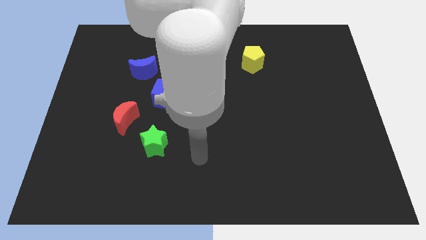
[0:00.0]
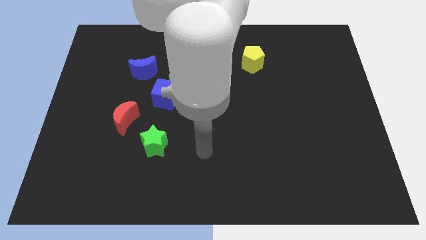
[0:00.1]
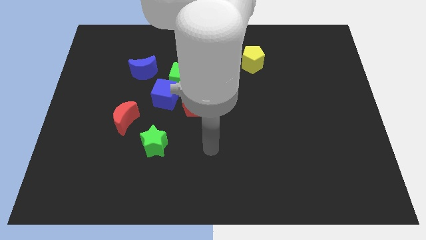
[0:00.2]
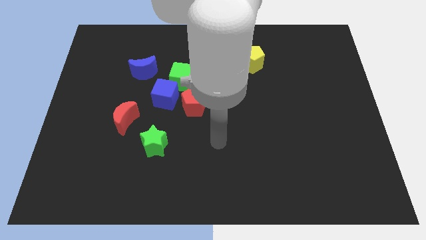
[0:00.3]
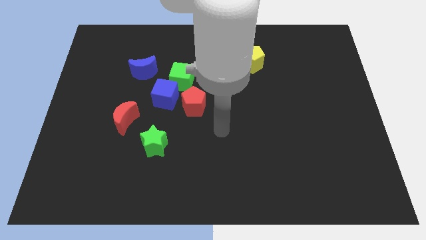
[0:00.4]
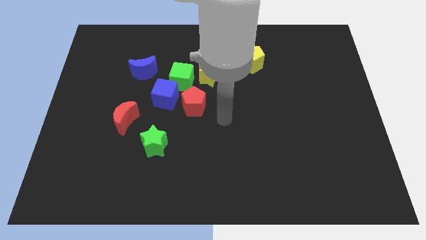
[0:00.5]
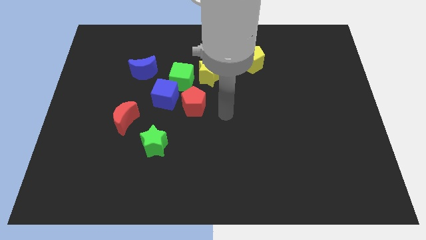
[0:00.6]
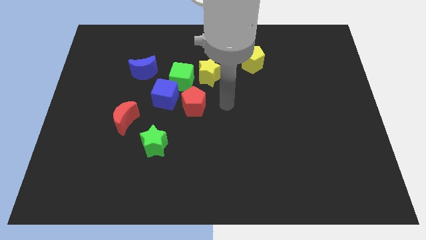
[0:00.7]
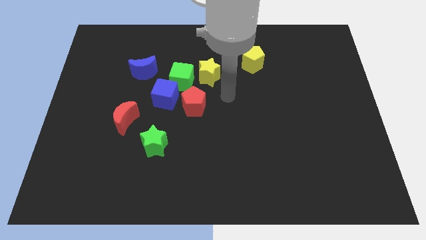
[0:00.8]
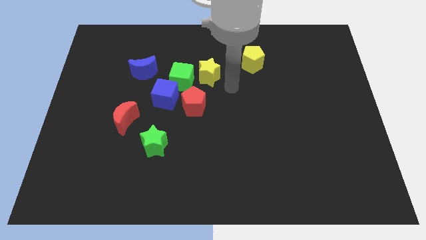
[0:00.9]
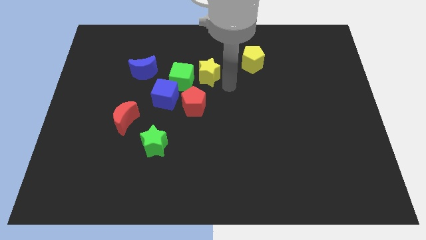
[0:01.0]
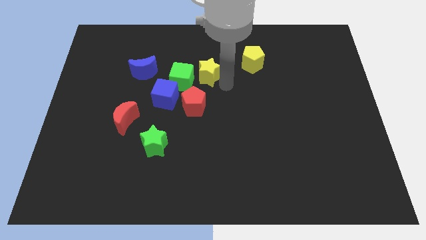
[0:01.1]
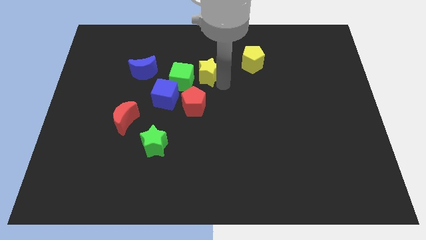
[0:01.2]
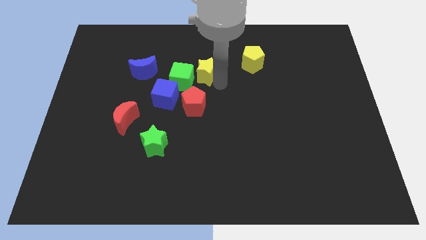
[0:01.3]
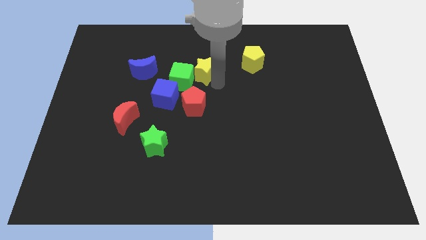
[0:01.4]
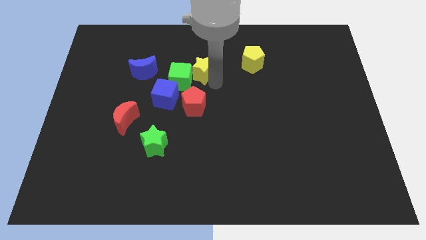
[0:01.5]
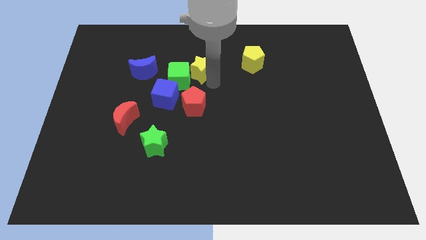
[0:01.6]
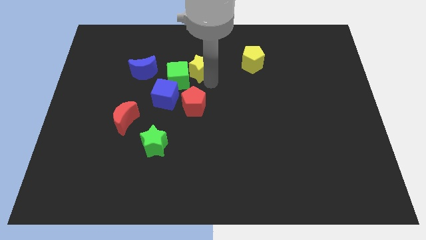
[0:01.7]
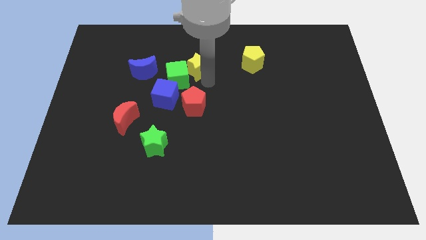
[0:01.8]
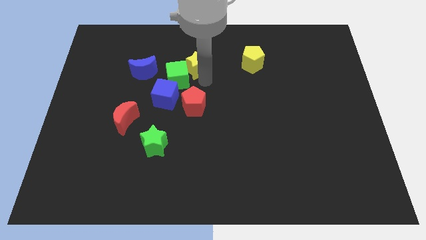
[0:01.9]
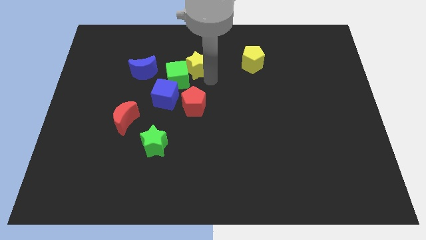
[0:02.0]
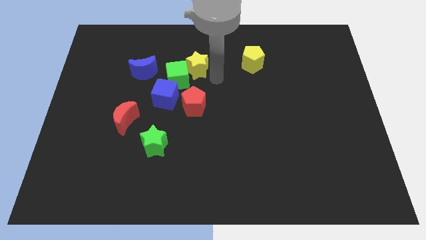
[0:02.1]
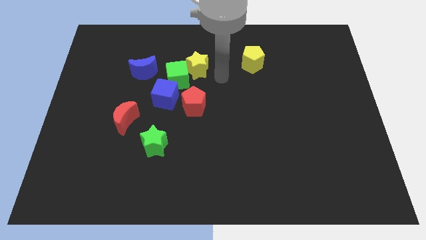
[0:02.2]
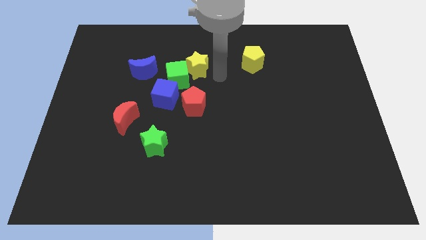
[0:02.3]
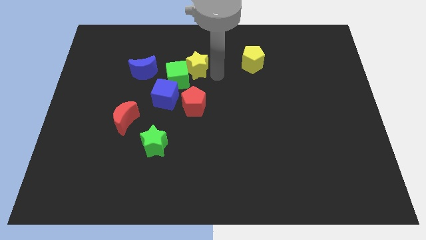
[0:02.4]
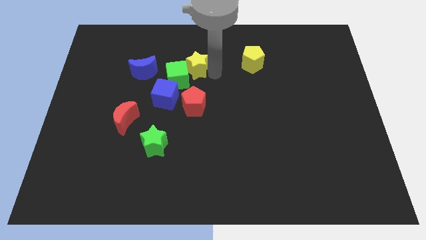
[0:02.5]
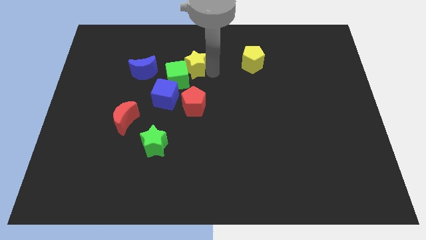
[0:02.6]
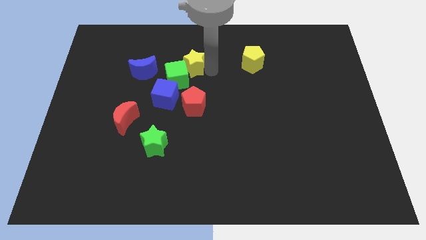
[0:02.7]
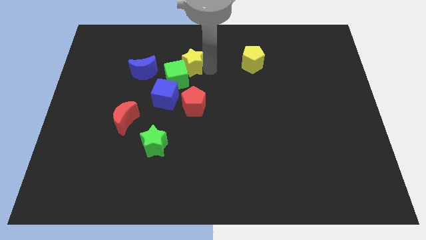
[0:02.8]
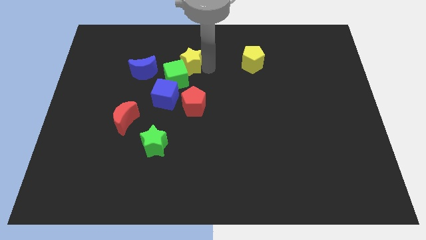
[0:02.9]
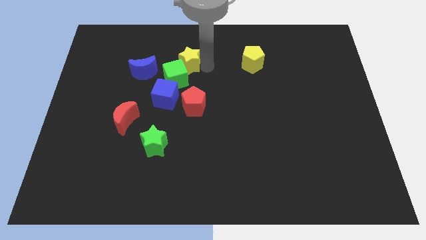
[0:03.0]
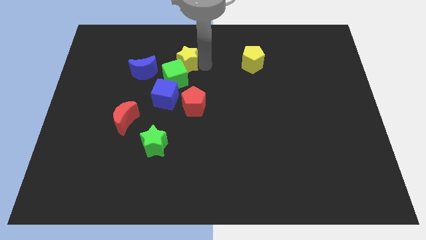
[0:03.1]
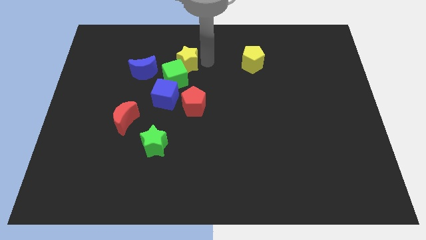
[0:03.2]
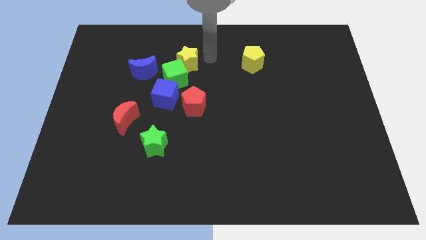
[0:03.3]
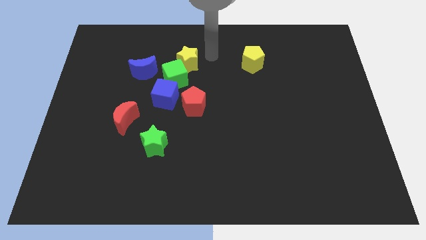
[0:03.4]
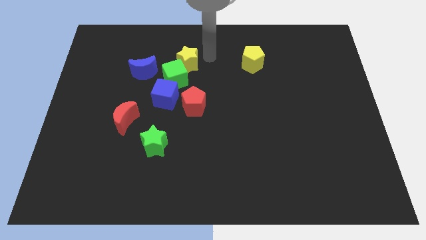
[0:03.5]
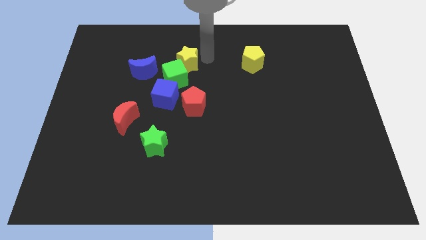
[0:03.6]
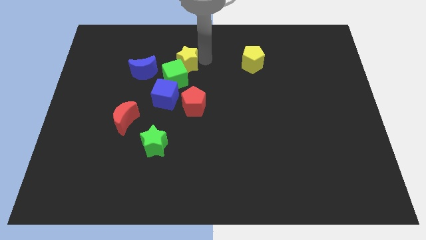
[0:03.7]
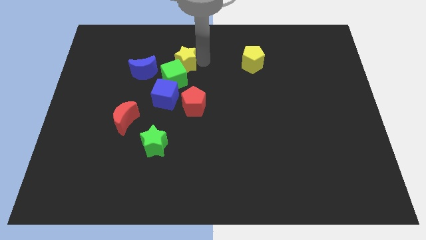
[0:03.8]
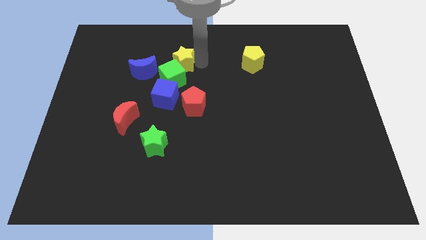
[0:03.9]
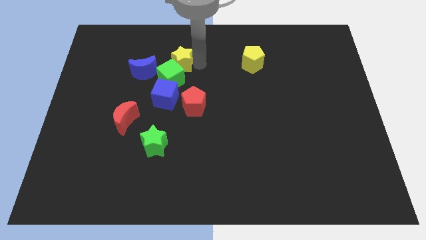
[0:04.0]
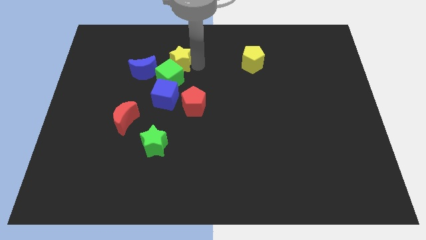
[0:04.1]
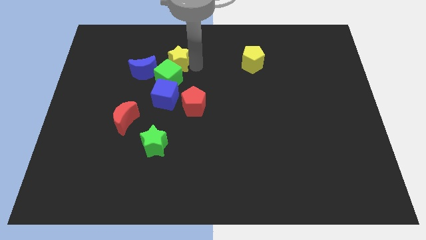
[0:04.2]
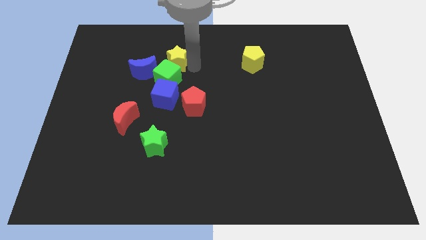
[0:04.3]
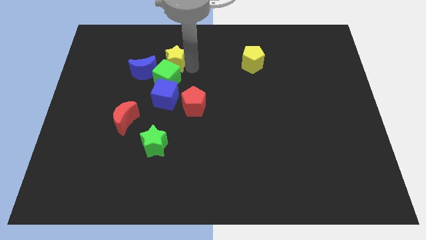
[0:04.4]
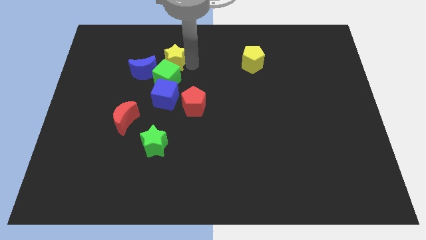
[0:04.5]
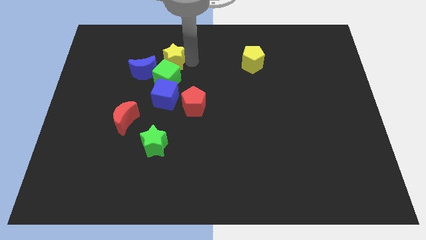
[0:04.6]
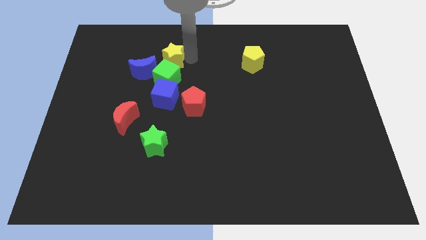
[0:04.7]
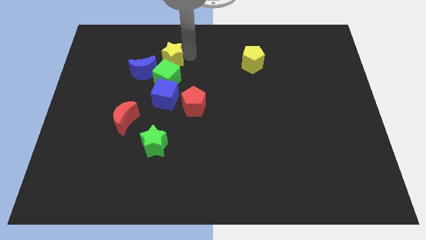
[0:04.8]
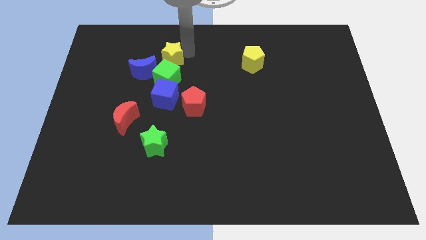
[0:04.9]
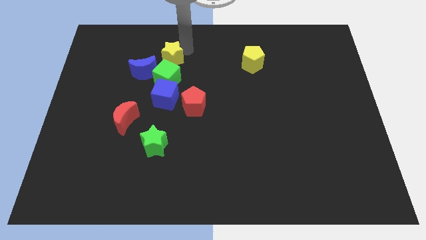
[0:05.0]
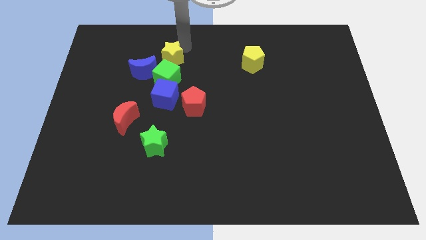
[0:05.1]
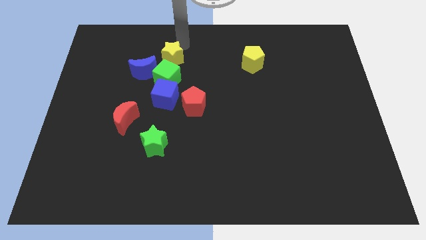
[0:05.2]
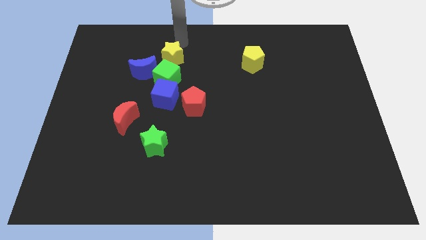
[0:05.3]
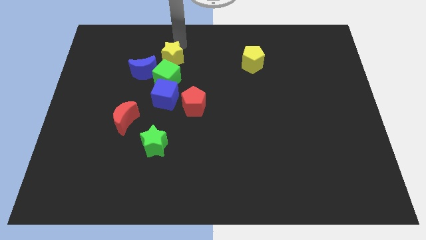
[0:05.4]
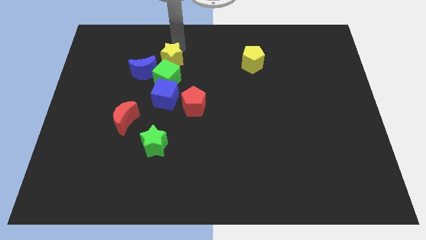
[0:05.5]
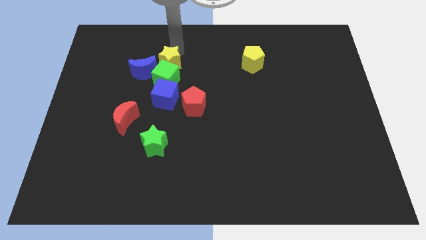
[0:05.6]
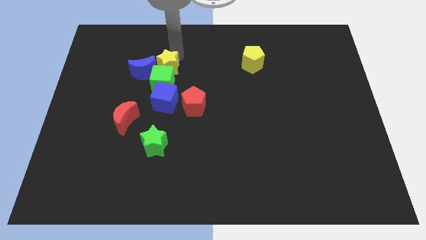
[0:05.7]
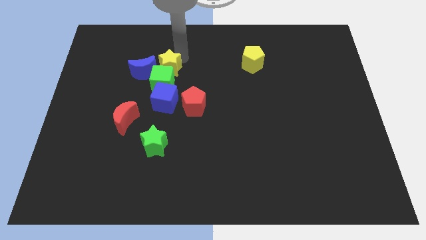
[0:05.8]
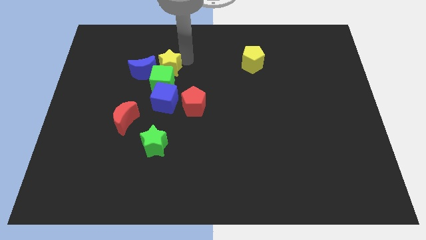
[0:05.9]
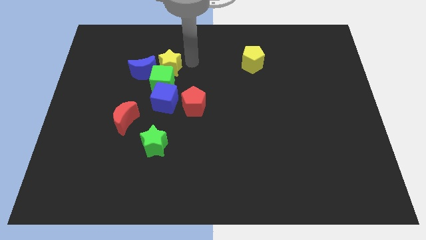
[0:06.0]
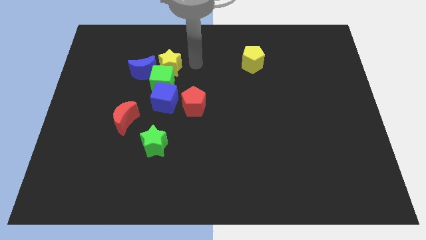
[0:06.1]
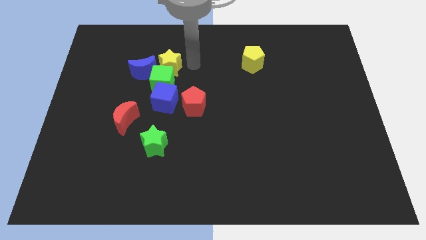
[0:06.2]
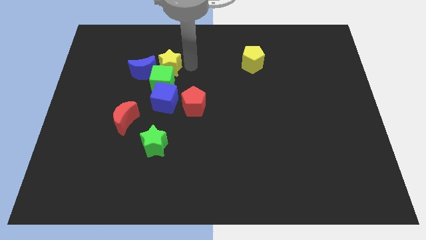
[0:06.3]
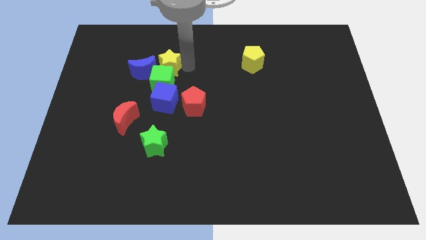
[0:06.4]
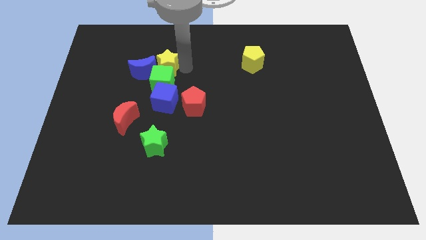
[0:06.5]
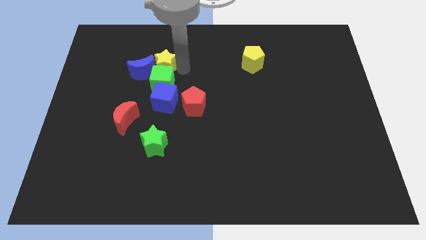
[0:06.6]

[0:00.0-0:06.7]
push the yellow star to the blue moon

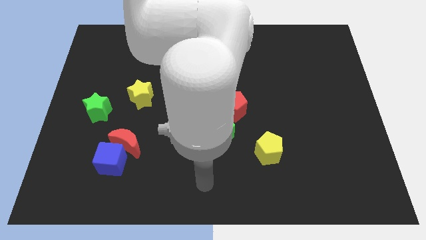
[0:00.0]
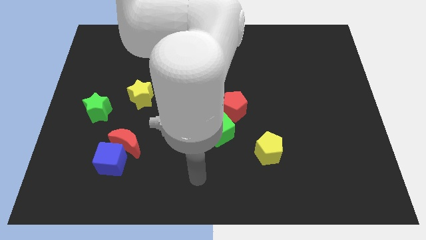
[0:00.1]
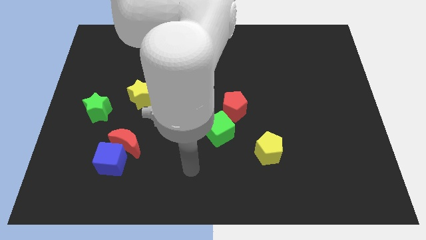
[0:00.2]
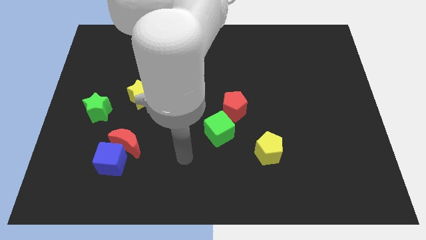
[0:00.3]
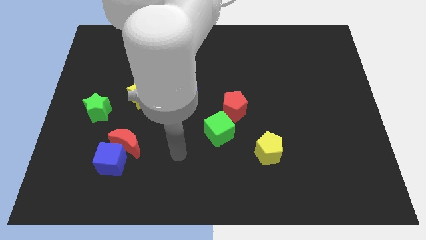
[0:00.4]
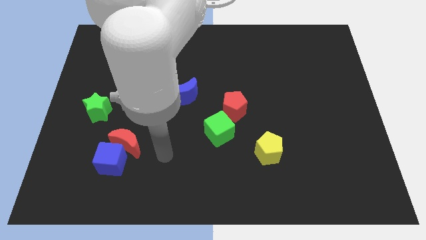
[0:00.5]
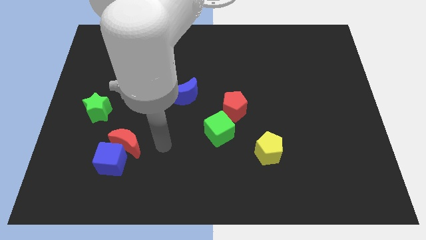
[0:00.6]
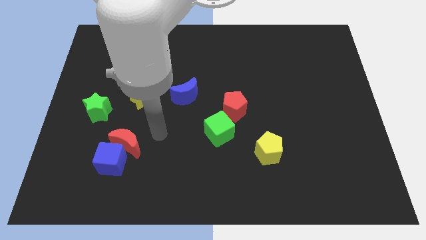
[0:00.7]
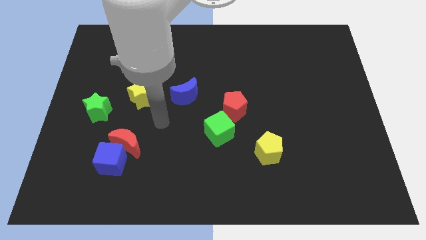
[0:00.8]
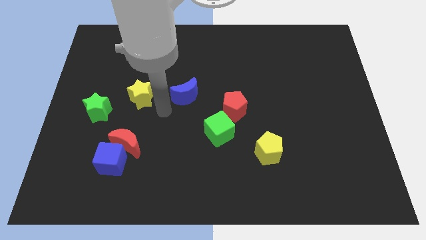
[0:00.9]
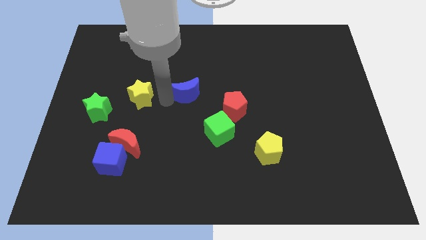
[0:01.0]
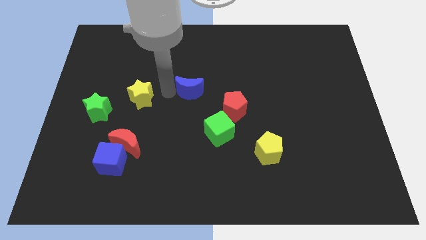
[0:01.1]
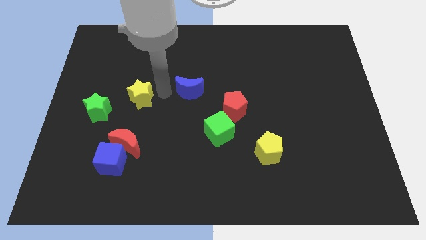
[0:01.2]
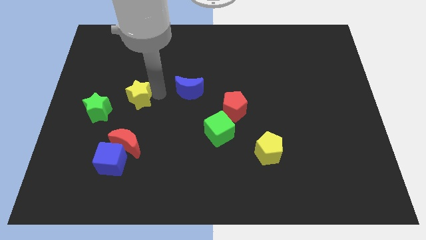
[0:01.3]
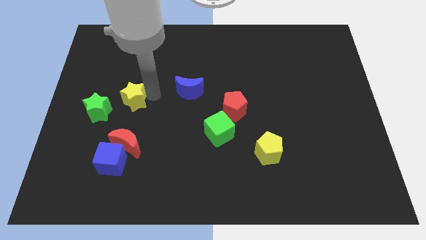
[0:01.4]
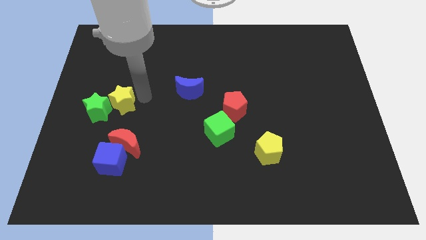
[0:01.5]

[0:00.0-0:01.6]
move the yellow star to the green star
